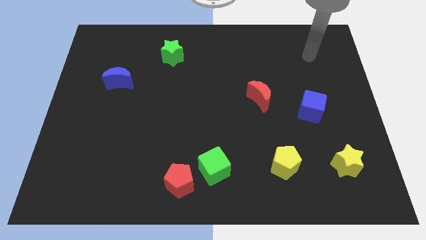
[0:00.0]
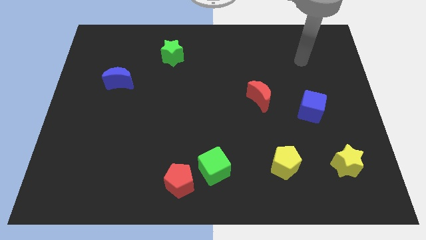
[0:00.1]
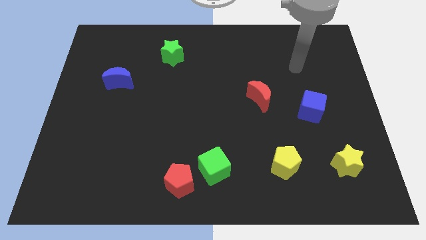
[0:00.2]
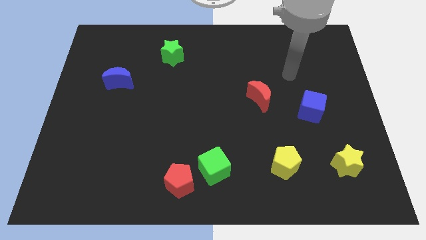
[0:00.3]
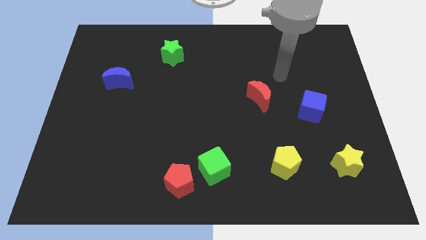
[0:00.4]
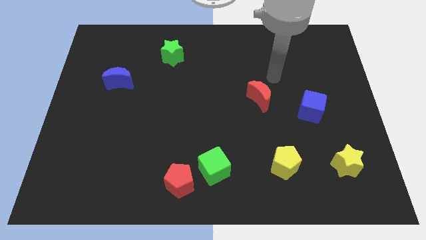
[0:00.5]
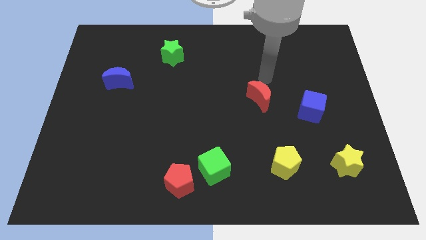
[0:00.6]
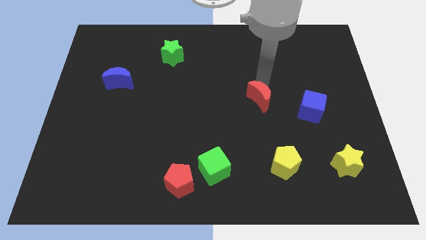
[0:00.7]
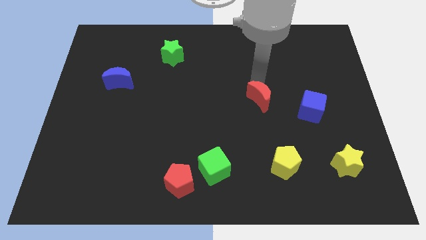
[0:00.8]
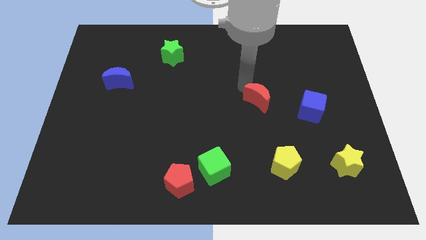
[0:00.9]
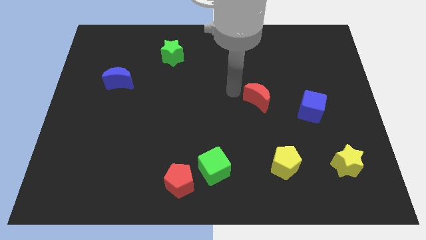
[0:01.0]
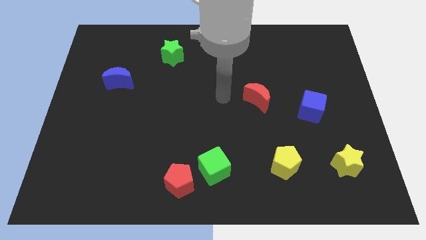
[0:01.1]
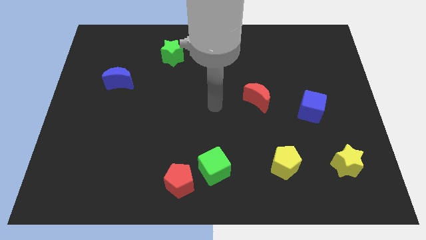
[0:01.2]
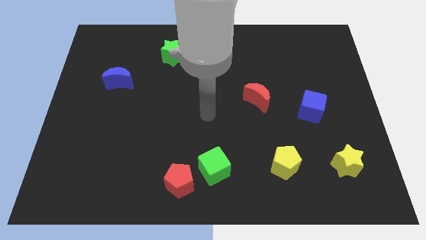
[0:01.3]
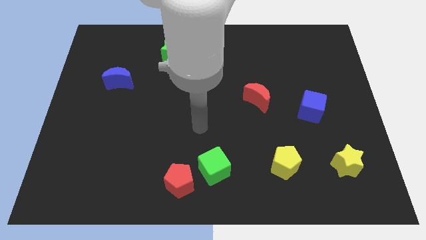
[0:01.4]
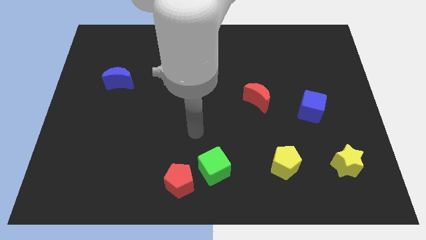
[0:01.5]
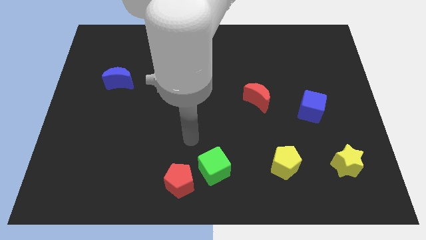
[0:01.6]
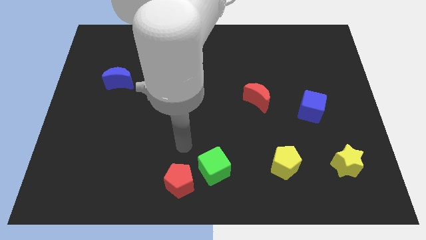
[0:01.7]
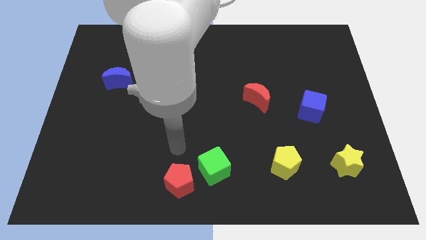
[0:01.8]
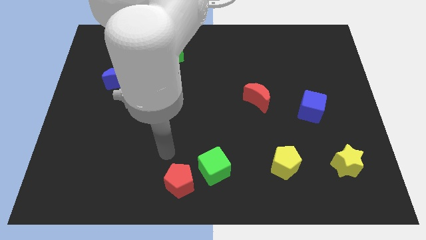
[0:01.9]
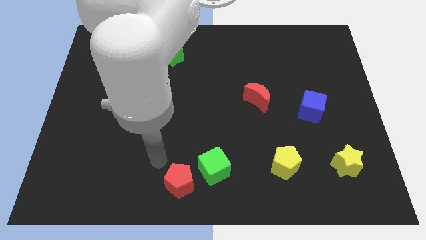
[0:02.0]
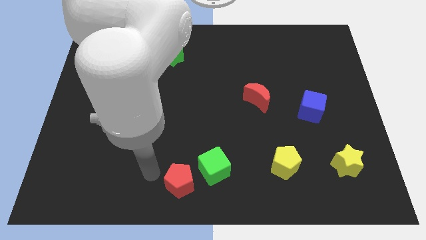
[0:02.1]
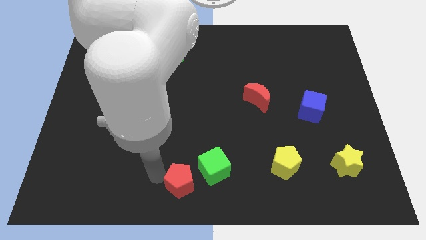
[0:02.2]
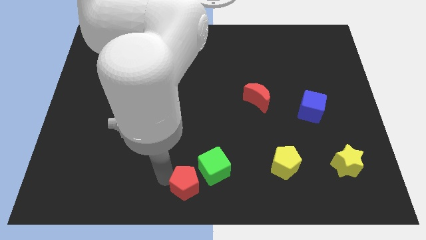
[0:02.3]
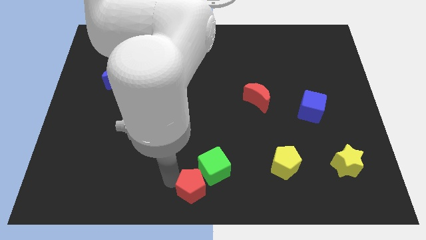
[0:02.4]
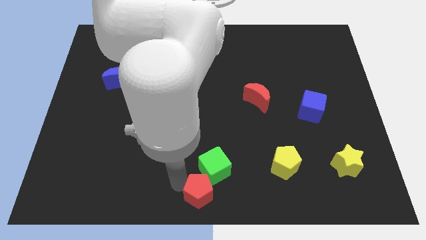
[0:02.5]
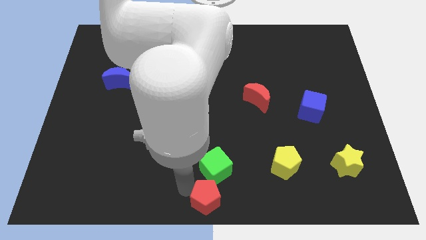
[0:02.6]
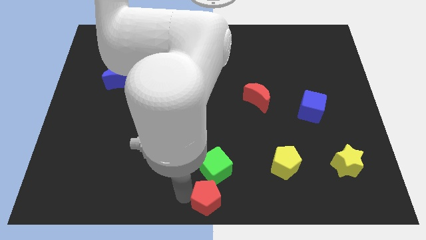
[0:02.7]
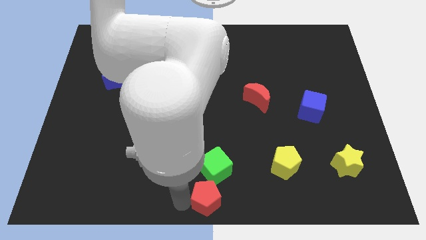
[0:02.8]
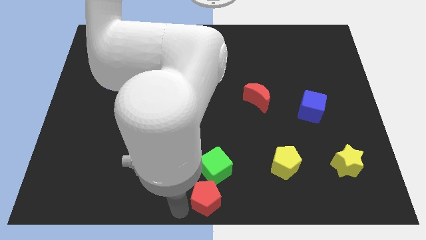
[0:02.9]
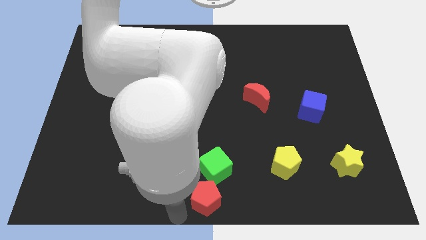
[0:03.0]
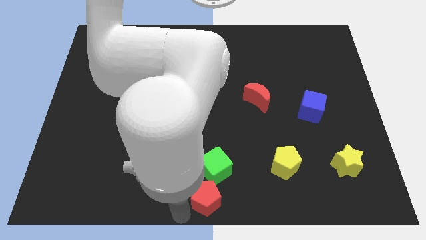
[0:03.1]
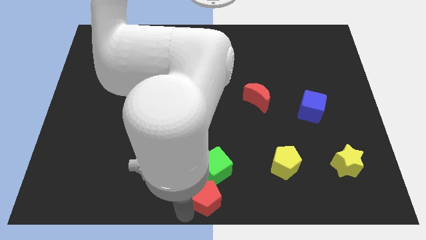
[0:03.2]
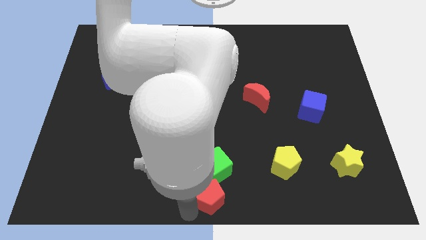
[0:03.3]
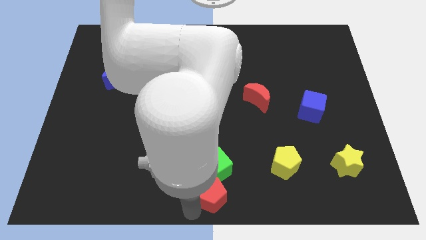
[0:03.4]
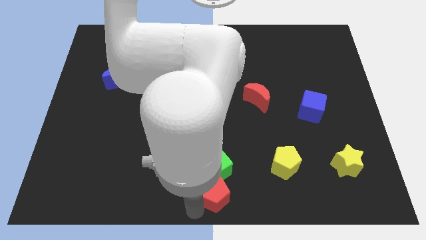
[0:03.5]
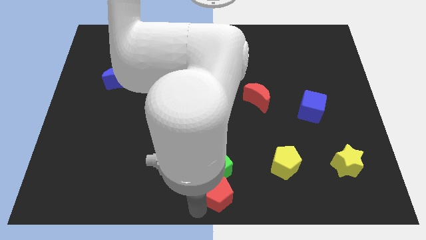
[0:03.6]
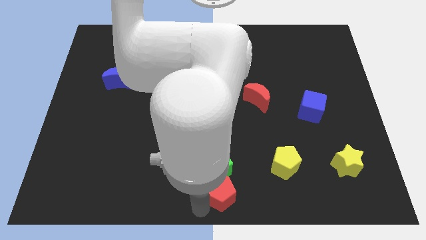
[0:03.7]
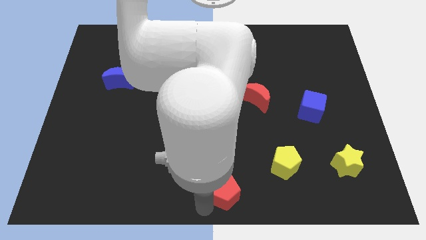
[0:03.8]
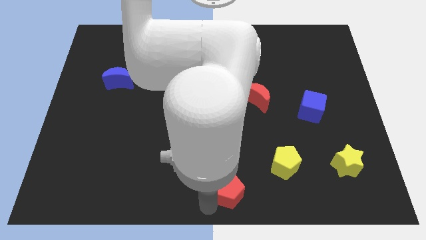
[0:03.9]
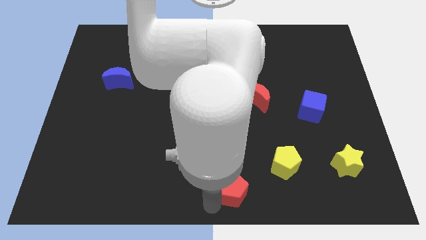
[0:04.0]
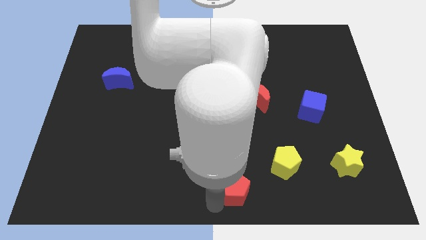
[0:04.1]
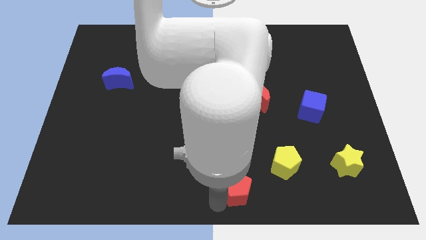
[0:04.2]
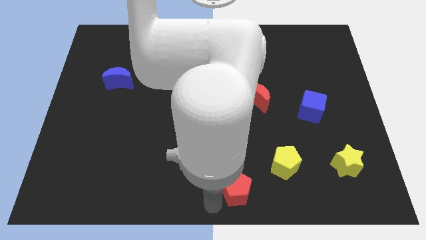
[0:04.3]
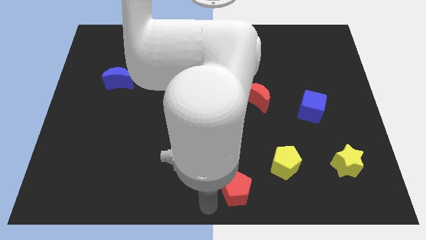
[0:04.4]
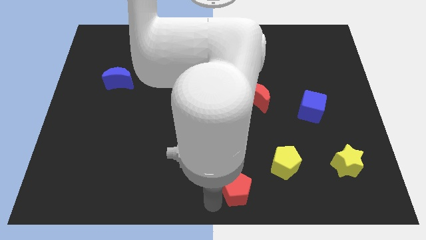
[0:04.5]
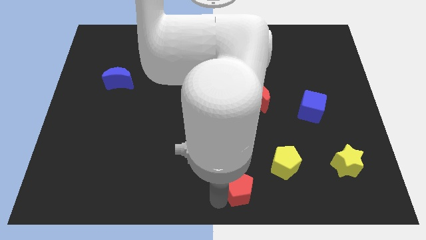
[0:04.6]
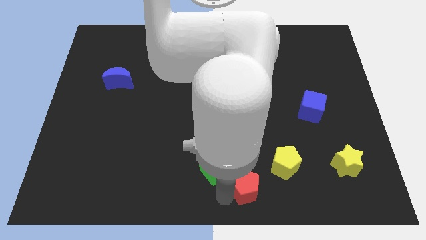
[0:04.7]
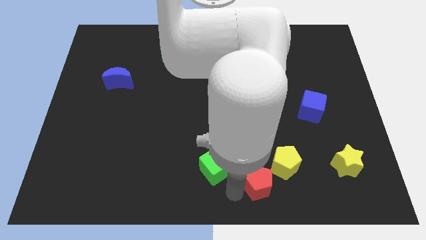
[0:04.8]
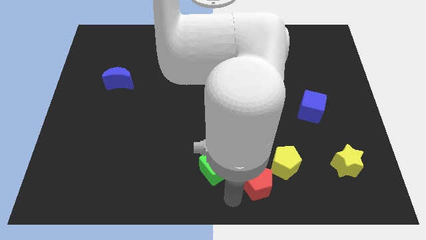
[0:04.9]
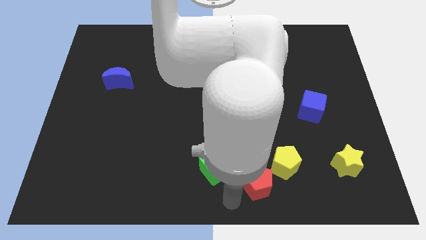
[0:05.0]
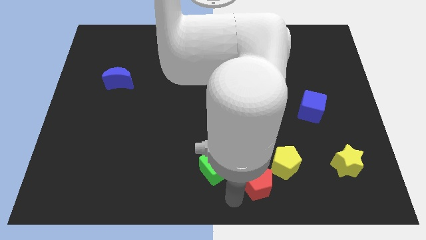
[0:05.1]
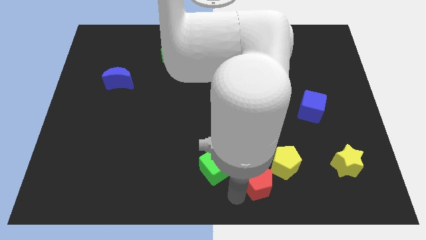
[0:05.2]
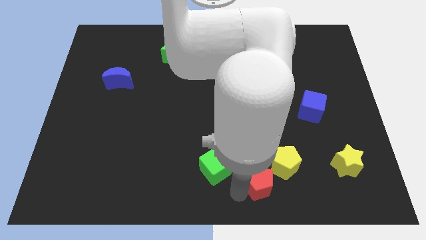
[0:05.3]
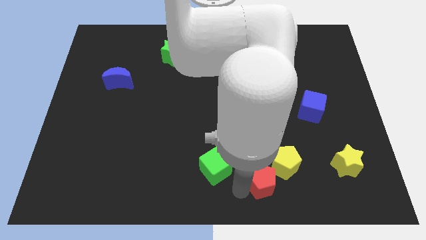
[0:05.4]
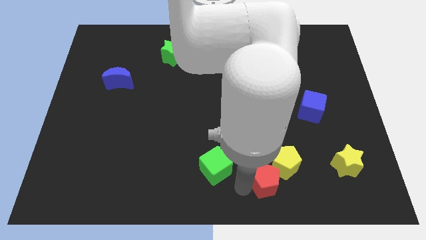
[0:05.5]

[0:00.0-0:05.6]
put the red pentagon to the yellow pentagon

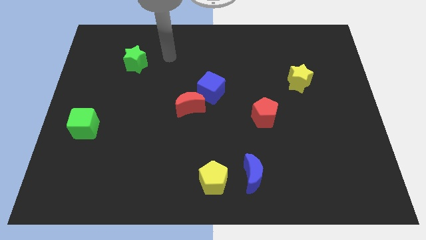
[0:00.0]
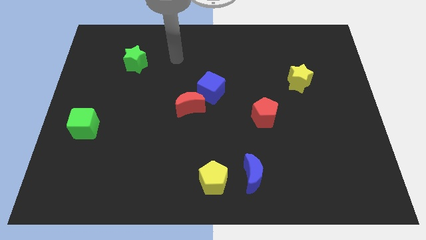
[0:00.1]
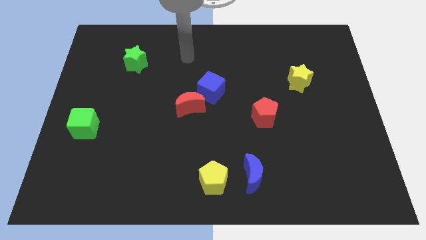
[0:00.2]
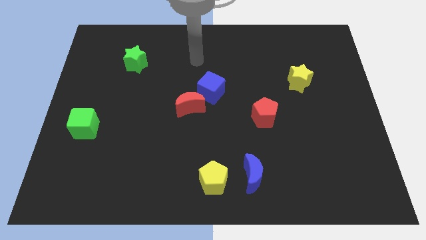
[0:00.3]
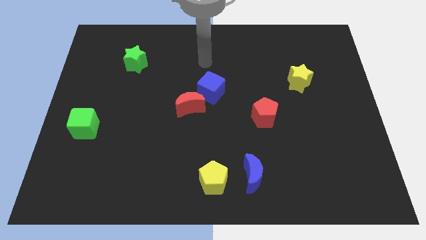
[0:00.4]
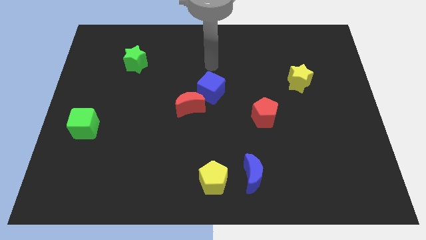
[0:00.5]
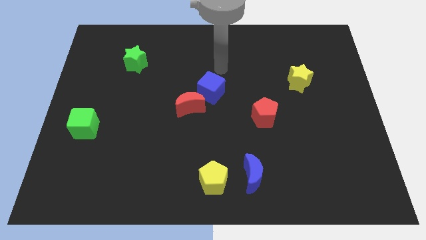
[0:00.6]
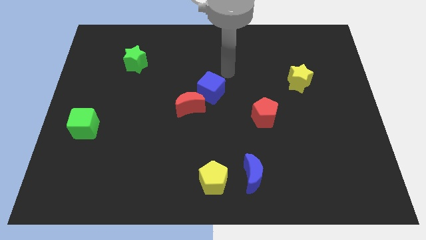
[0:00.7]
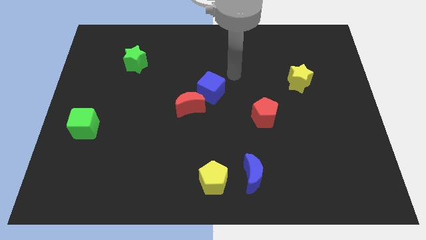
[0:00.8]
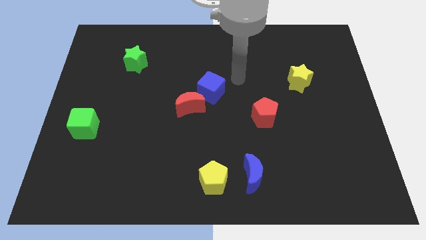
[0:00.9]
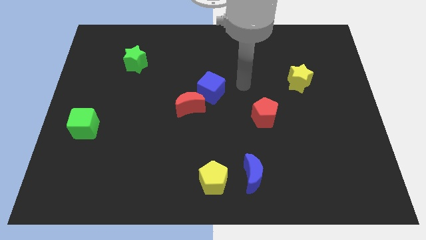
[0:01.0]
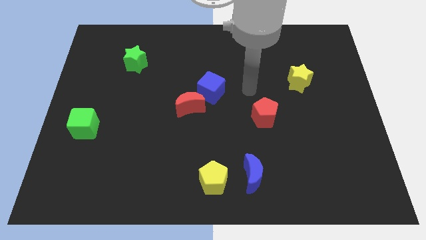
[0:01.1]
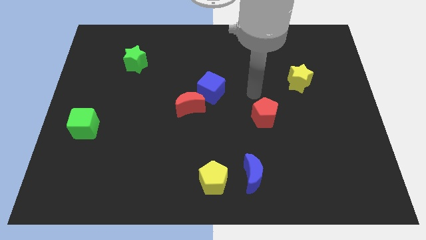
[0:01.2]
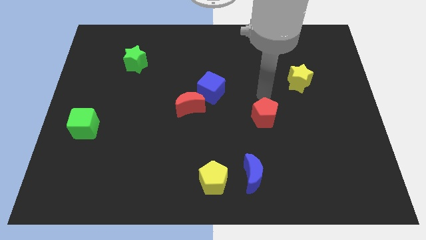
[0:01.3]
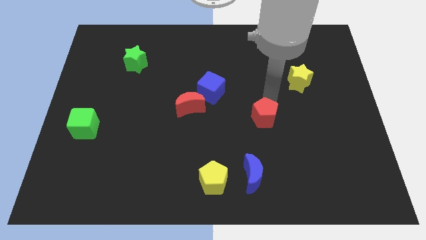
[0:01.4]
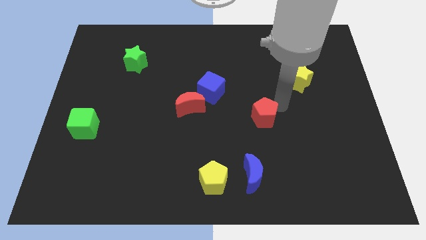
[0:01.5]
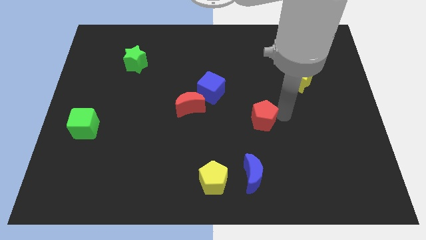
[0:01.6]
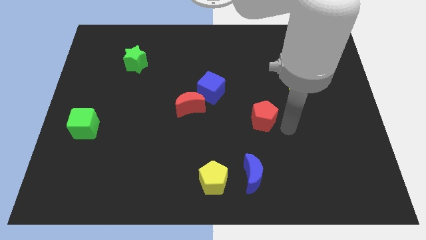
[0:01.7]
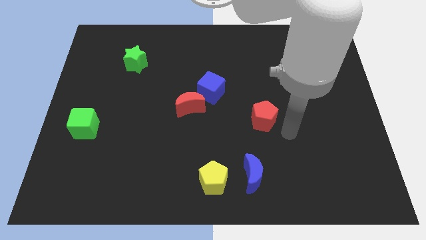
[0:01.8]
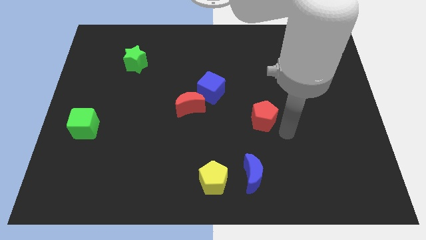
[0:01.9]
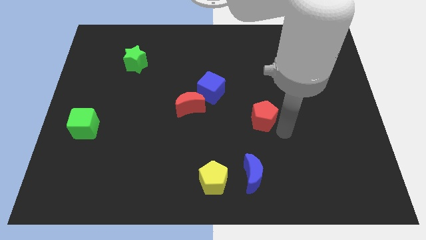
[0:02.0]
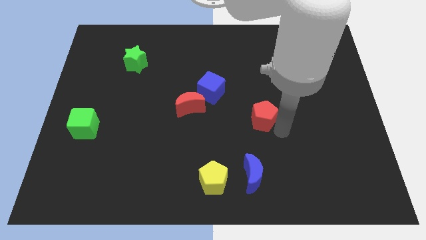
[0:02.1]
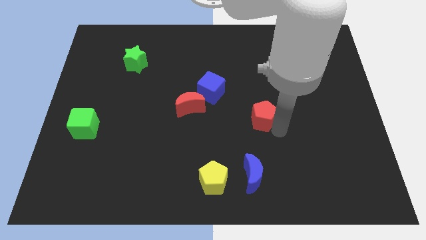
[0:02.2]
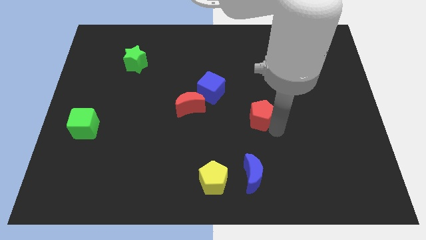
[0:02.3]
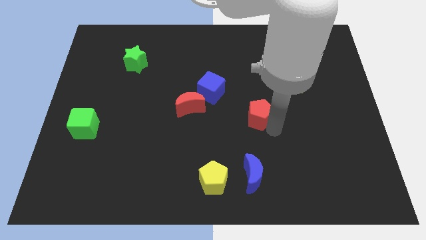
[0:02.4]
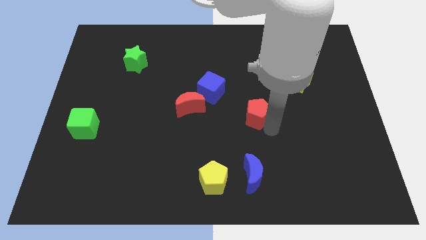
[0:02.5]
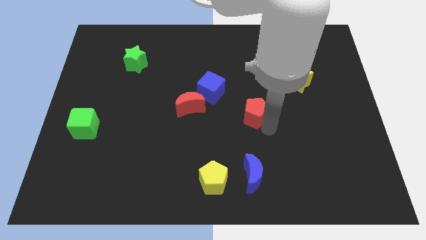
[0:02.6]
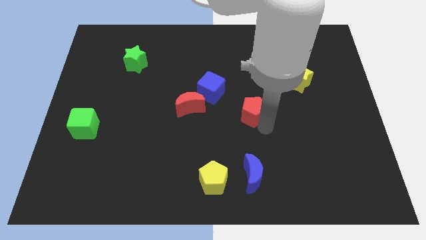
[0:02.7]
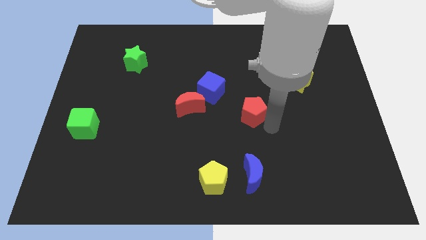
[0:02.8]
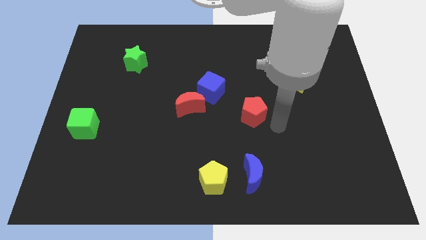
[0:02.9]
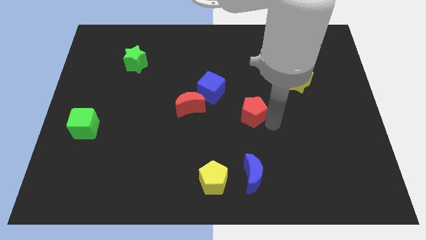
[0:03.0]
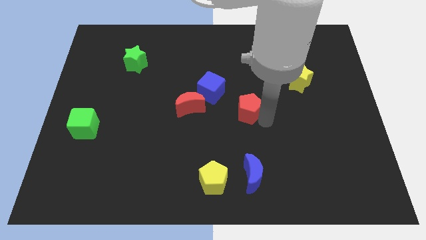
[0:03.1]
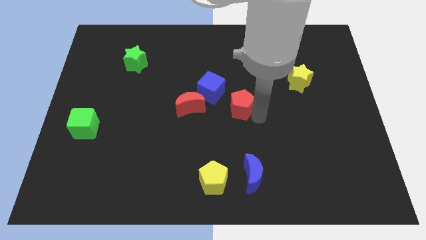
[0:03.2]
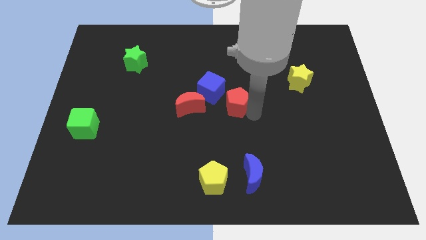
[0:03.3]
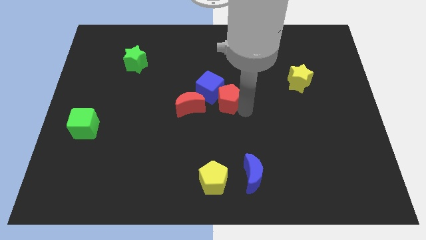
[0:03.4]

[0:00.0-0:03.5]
move the red pentagon close to the blue cube
